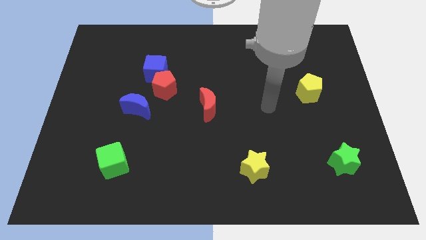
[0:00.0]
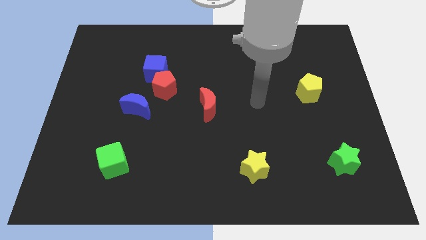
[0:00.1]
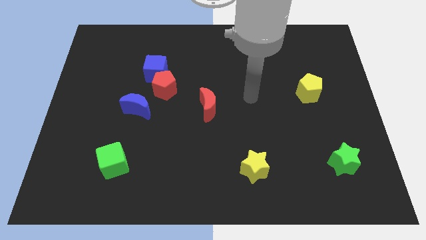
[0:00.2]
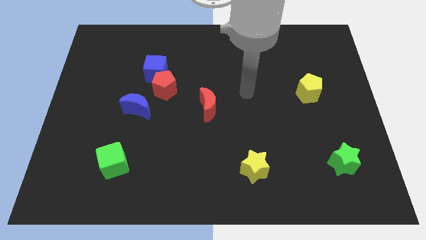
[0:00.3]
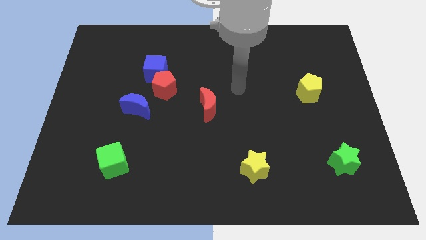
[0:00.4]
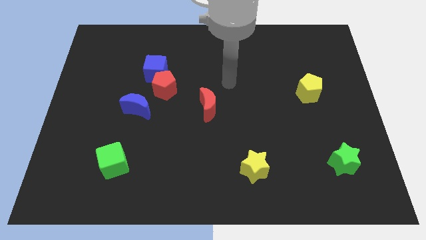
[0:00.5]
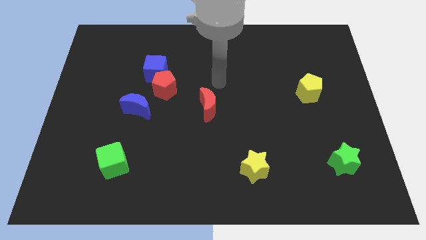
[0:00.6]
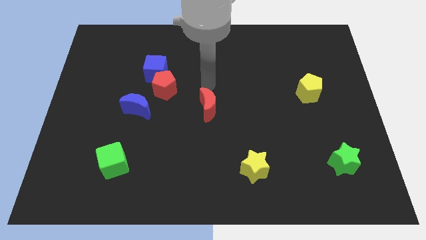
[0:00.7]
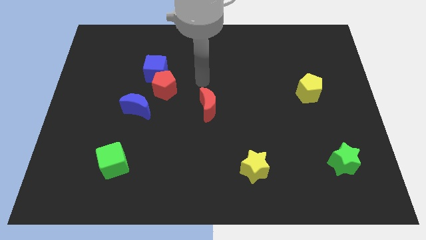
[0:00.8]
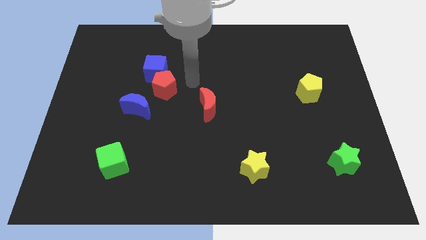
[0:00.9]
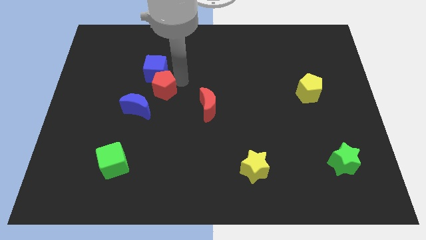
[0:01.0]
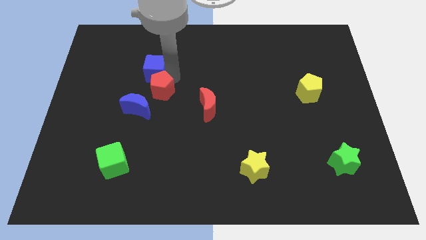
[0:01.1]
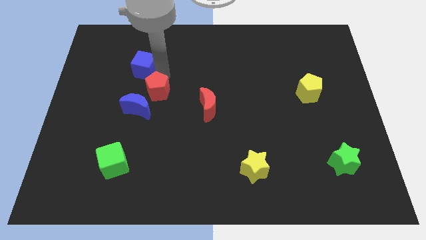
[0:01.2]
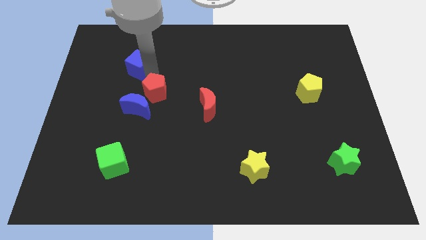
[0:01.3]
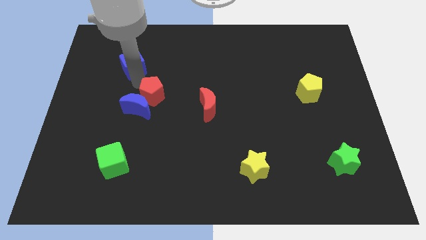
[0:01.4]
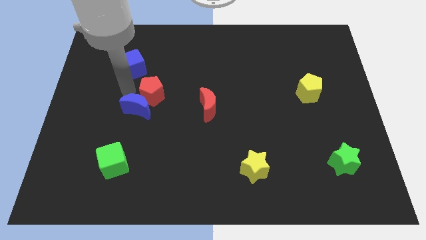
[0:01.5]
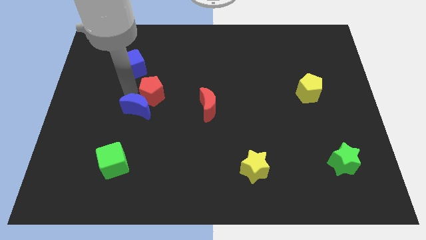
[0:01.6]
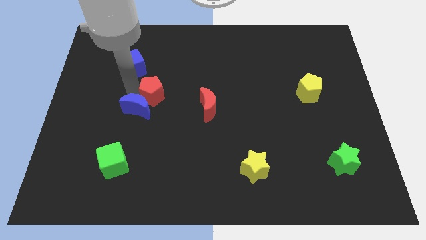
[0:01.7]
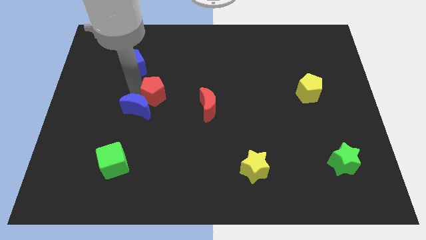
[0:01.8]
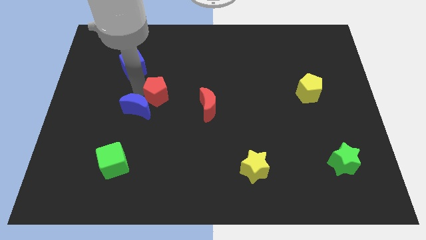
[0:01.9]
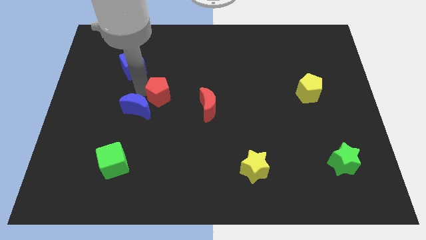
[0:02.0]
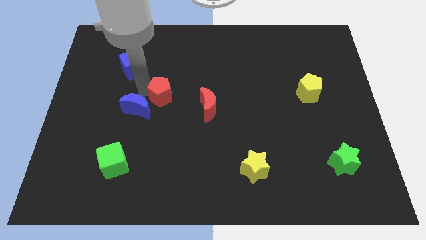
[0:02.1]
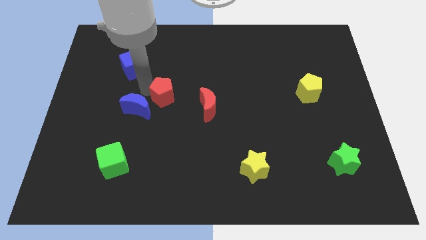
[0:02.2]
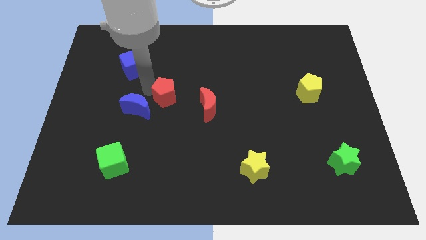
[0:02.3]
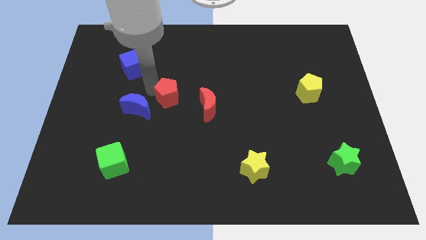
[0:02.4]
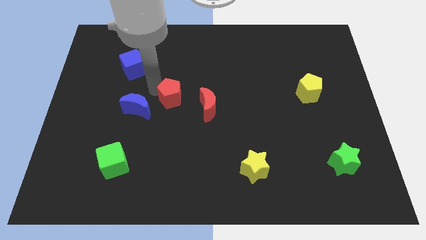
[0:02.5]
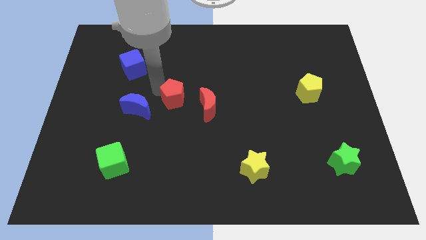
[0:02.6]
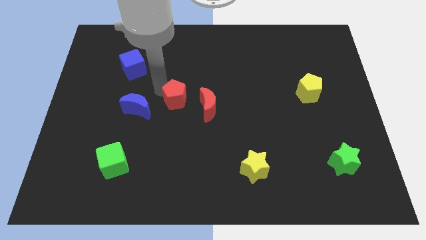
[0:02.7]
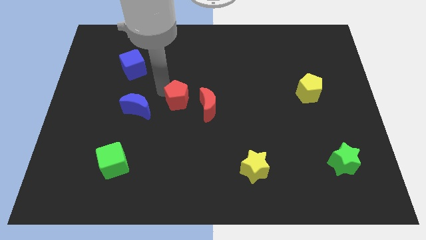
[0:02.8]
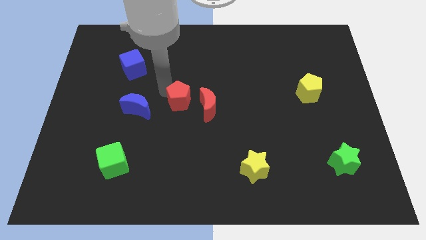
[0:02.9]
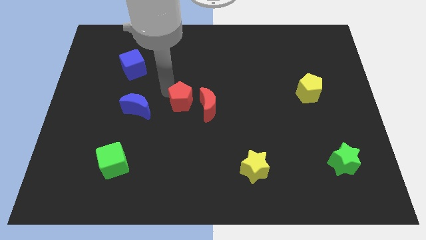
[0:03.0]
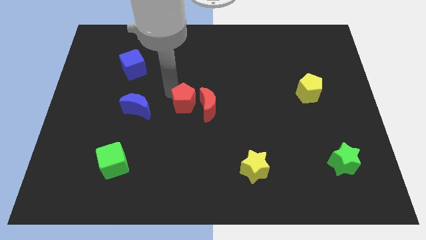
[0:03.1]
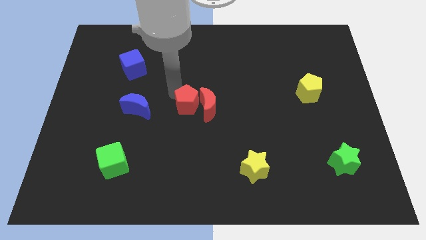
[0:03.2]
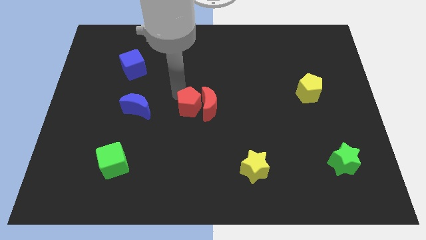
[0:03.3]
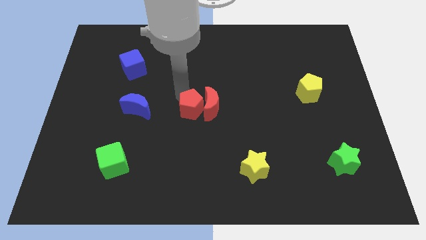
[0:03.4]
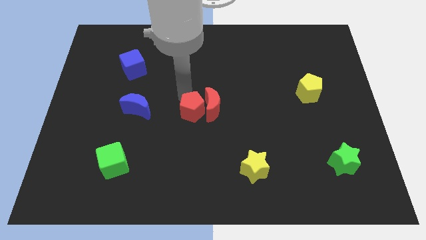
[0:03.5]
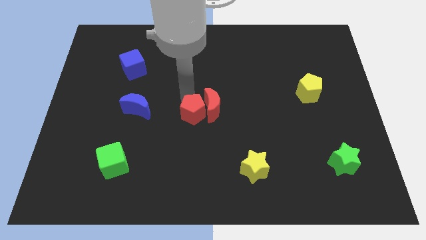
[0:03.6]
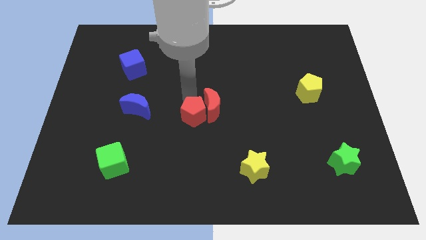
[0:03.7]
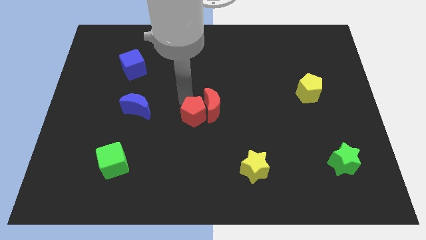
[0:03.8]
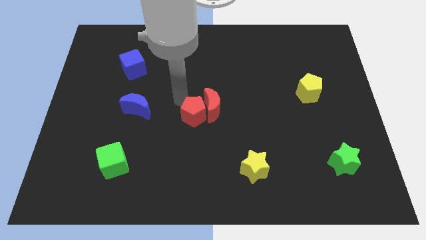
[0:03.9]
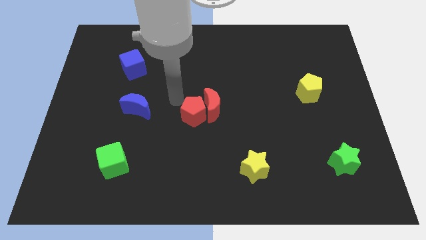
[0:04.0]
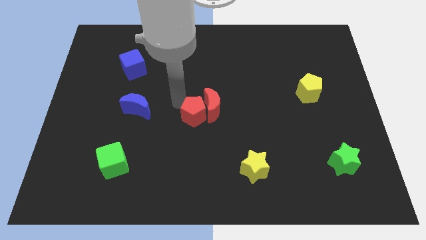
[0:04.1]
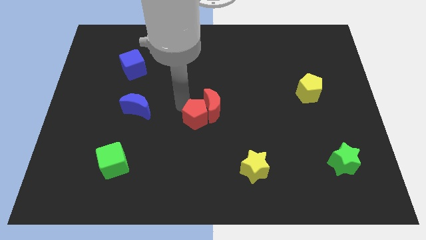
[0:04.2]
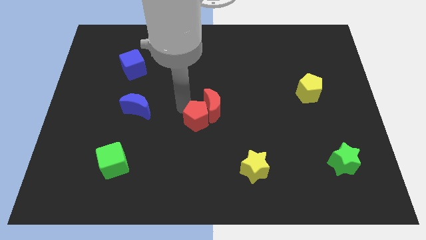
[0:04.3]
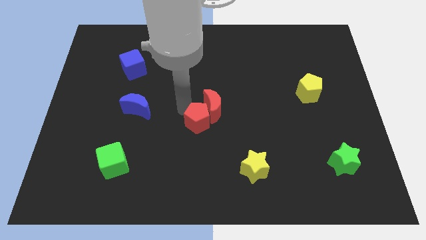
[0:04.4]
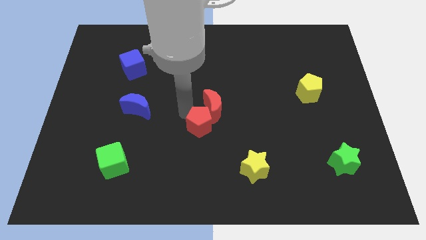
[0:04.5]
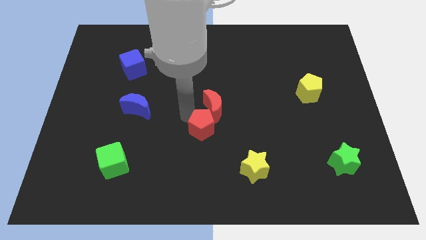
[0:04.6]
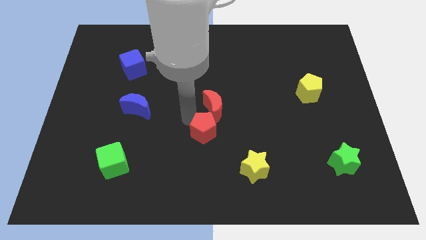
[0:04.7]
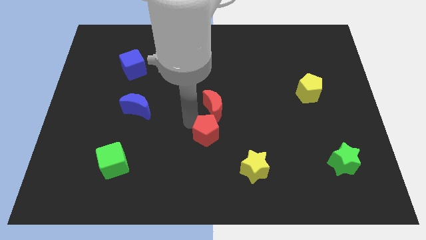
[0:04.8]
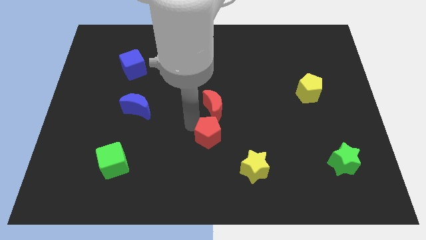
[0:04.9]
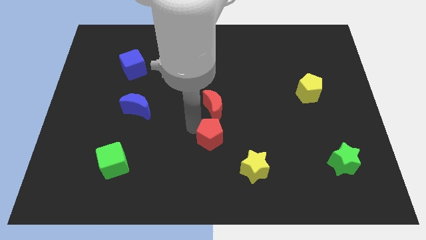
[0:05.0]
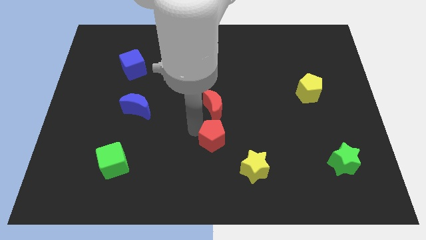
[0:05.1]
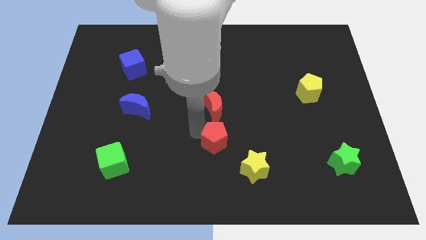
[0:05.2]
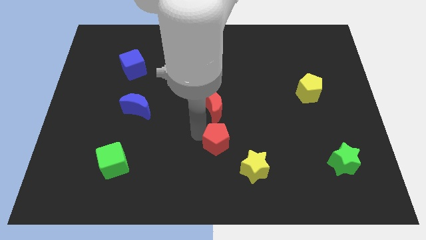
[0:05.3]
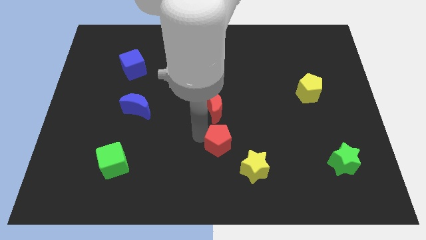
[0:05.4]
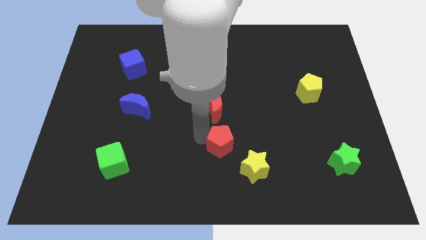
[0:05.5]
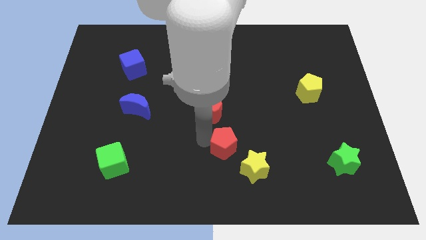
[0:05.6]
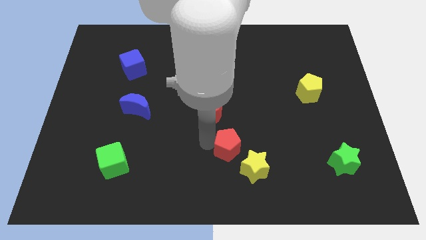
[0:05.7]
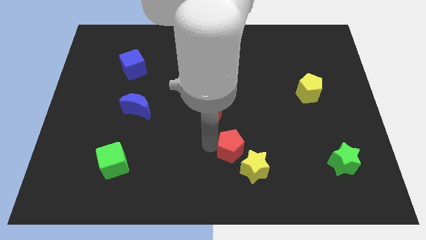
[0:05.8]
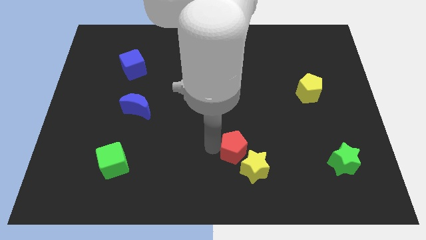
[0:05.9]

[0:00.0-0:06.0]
move the red pentagon next to the yellow star

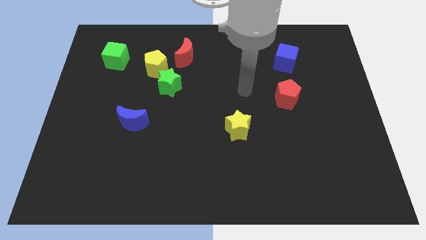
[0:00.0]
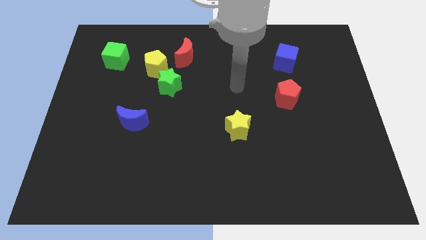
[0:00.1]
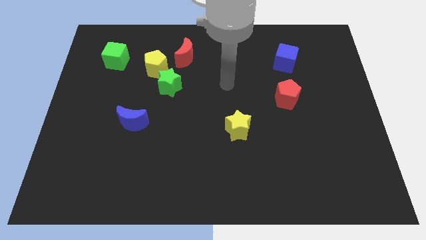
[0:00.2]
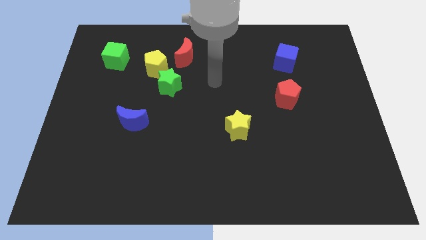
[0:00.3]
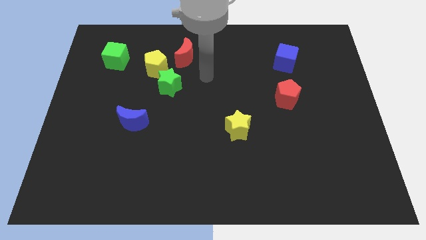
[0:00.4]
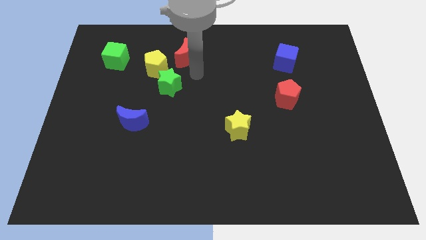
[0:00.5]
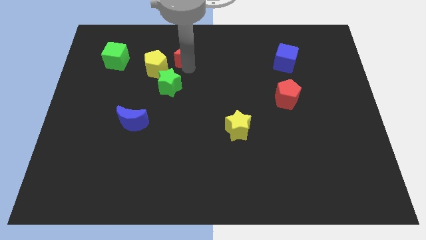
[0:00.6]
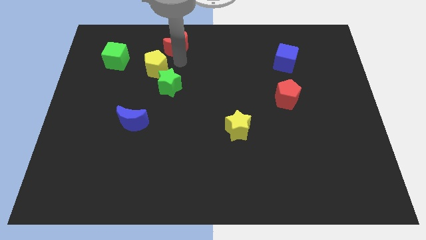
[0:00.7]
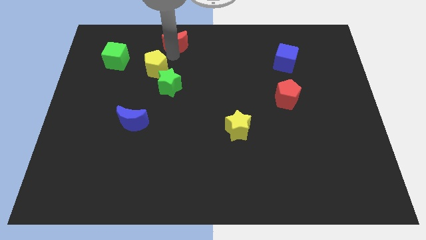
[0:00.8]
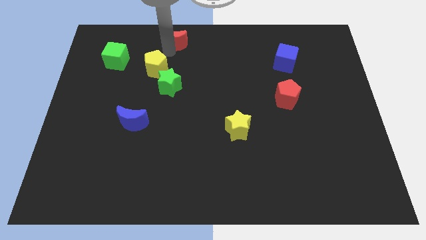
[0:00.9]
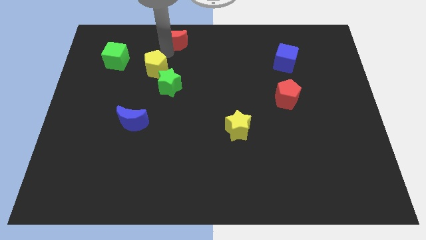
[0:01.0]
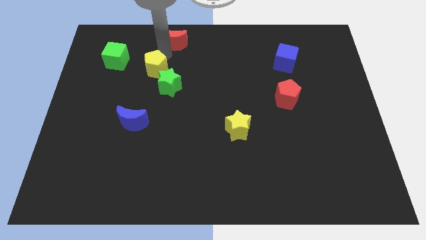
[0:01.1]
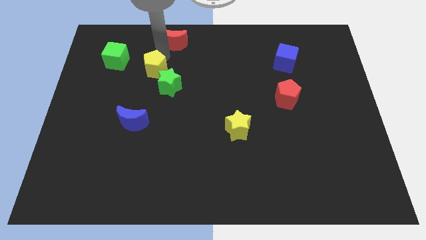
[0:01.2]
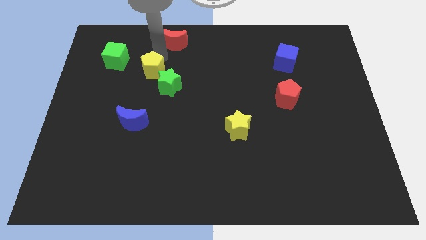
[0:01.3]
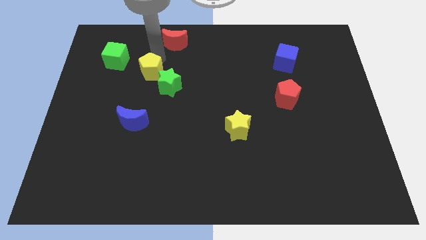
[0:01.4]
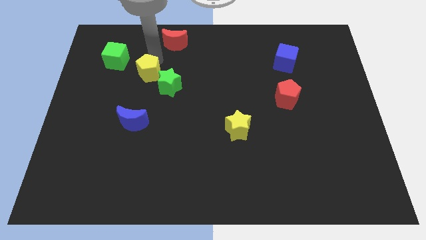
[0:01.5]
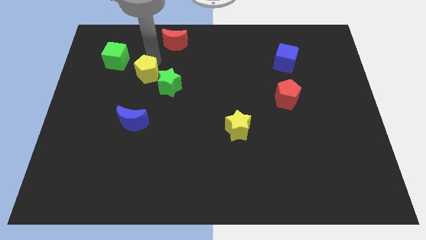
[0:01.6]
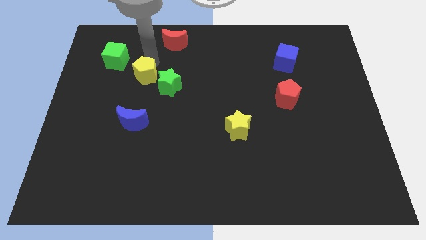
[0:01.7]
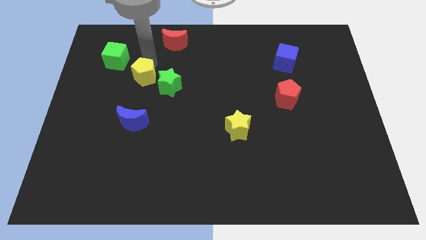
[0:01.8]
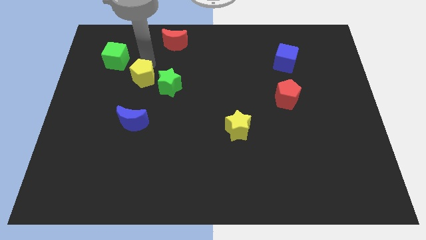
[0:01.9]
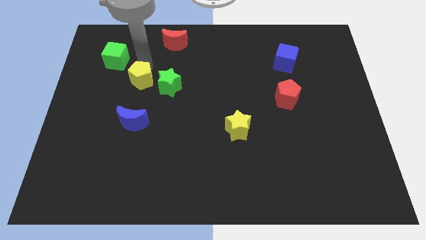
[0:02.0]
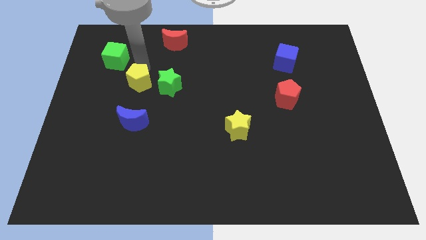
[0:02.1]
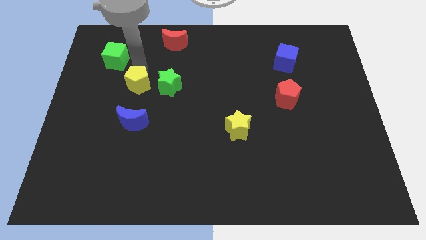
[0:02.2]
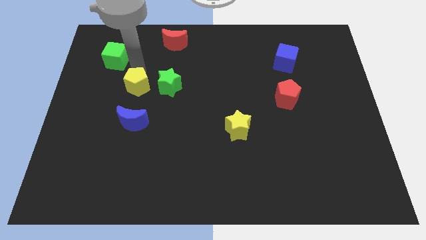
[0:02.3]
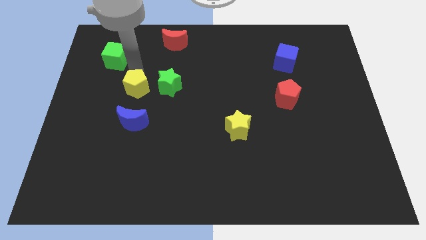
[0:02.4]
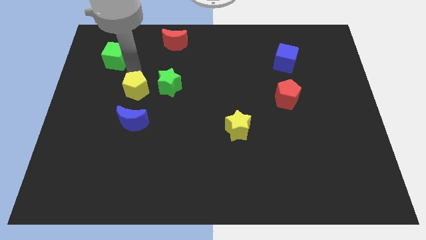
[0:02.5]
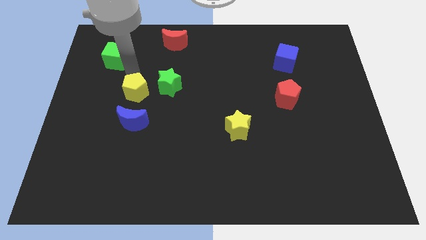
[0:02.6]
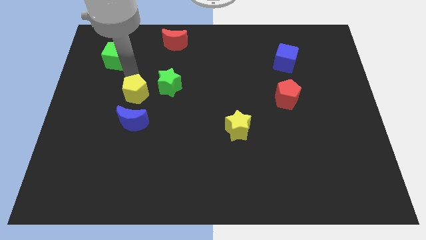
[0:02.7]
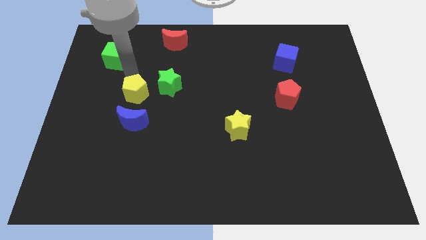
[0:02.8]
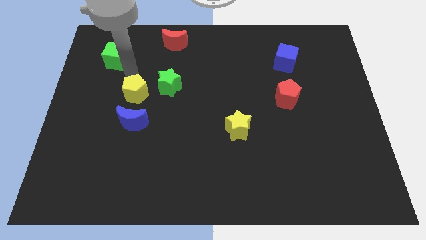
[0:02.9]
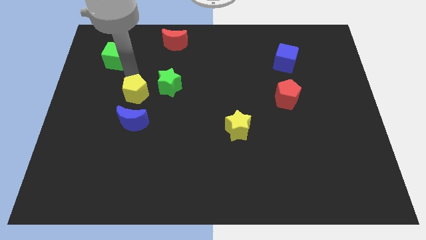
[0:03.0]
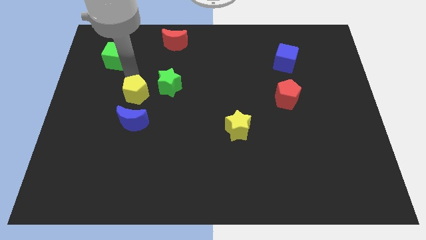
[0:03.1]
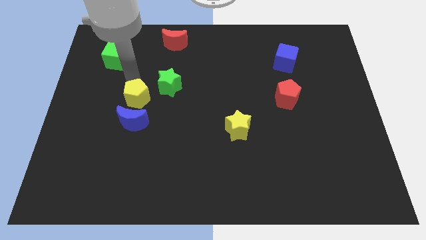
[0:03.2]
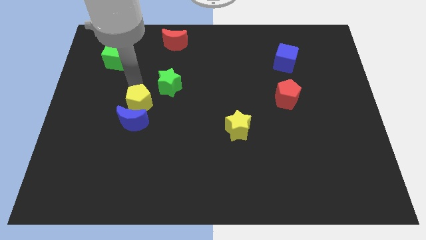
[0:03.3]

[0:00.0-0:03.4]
put the yellow pentagon to the blue moon
